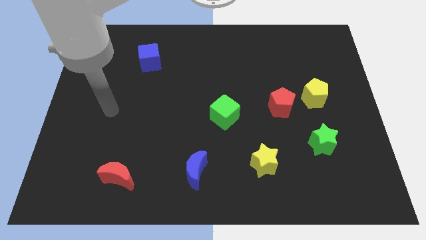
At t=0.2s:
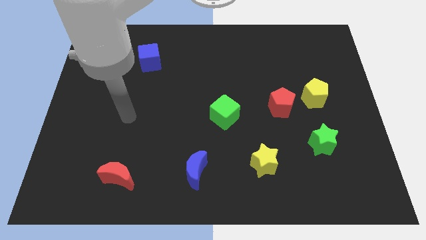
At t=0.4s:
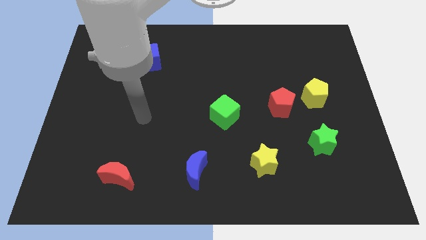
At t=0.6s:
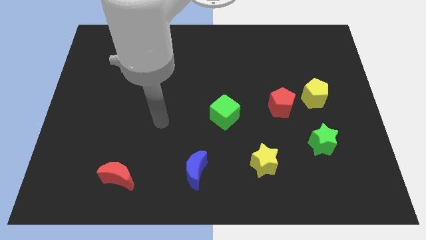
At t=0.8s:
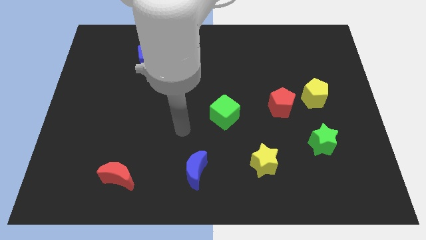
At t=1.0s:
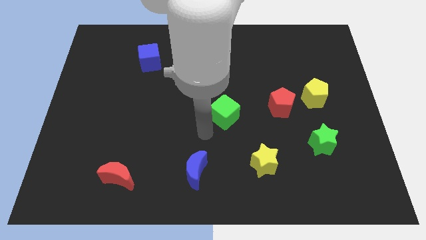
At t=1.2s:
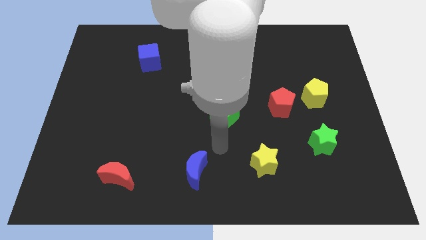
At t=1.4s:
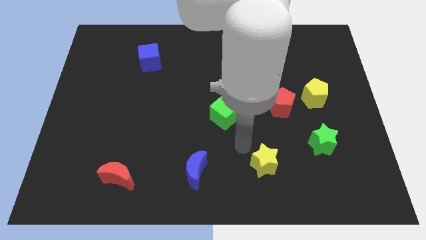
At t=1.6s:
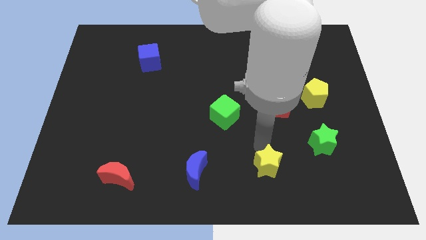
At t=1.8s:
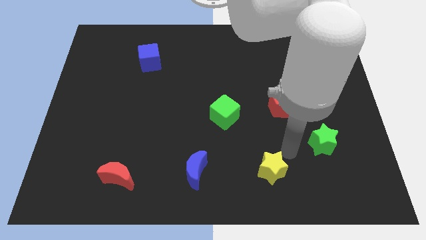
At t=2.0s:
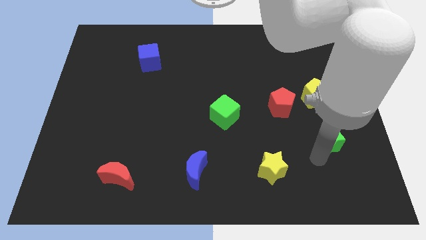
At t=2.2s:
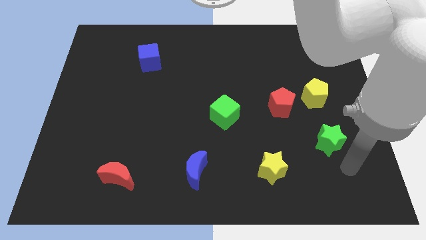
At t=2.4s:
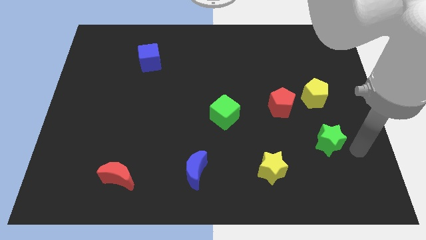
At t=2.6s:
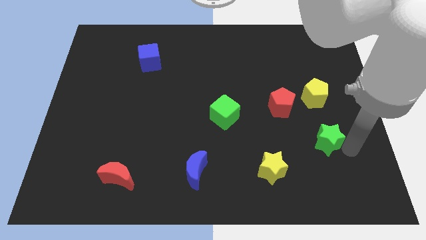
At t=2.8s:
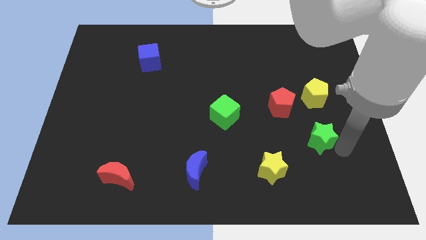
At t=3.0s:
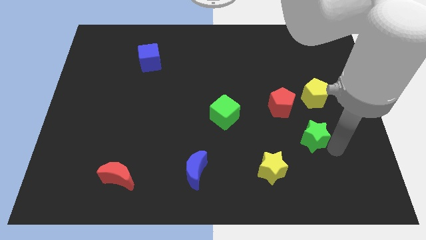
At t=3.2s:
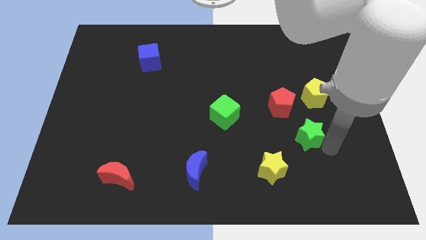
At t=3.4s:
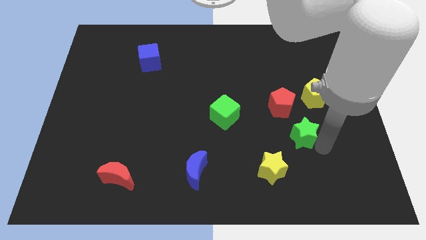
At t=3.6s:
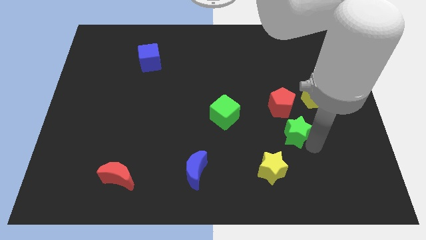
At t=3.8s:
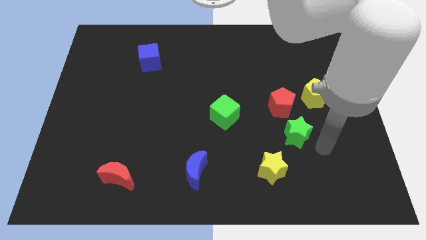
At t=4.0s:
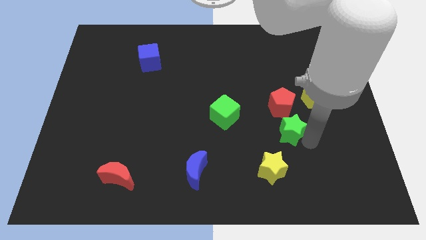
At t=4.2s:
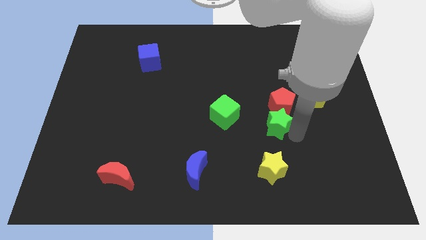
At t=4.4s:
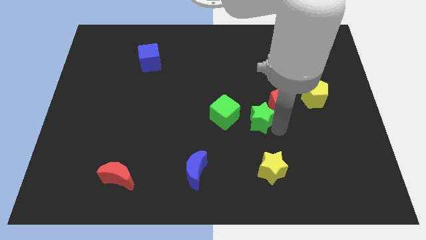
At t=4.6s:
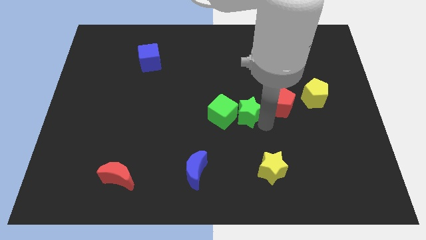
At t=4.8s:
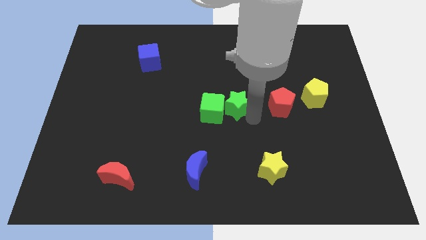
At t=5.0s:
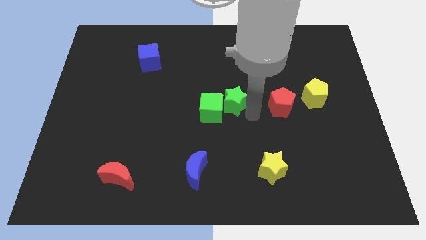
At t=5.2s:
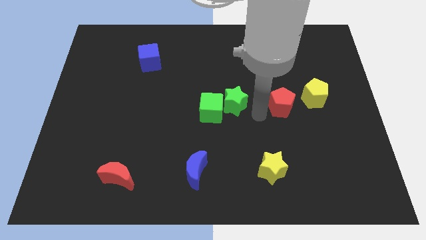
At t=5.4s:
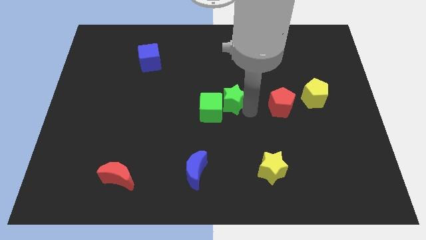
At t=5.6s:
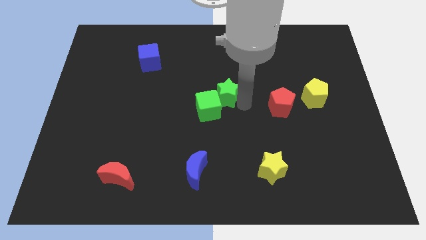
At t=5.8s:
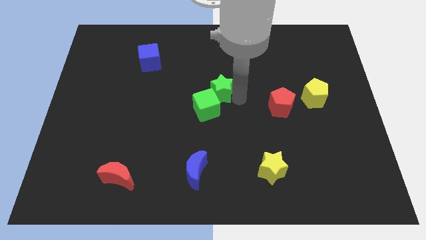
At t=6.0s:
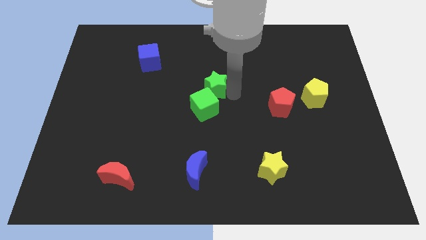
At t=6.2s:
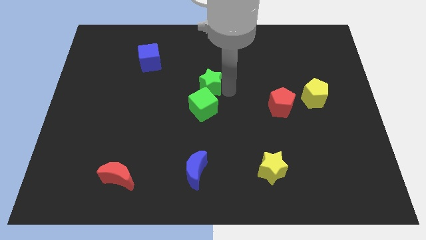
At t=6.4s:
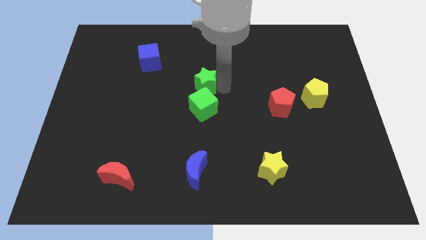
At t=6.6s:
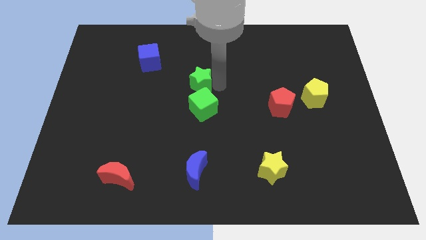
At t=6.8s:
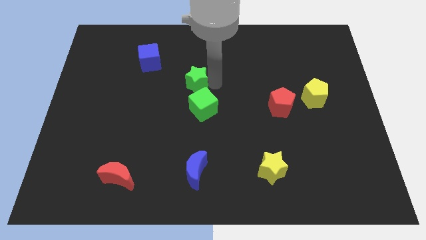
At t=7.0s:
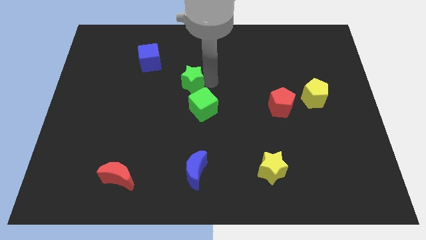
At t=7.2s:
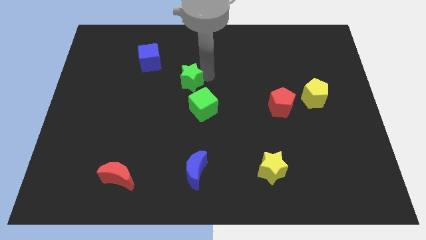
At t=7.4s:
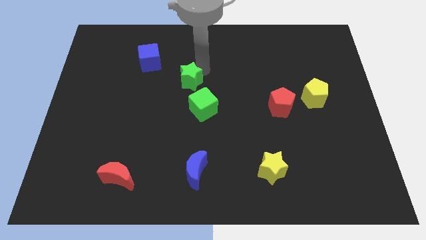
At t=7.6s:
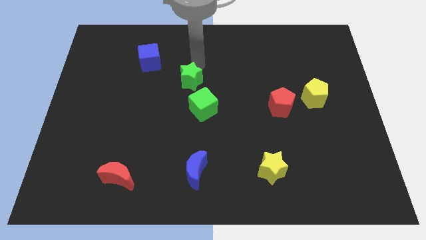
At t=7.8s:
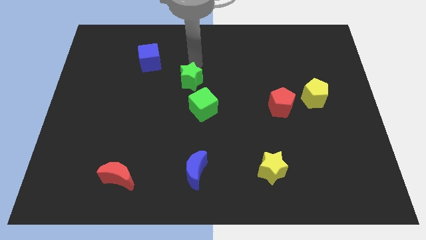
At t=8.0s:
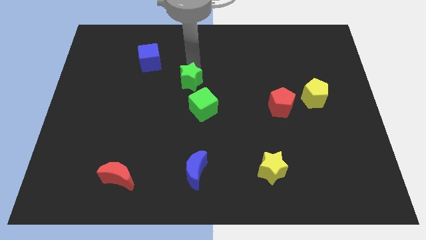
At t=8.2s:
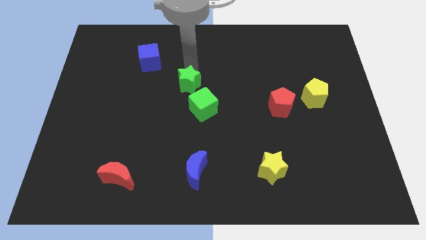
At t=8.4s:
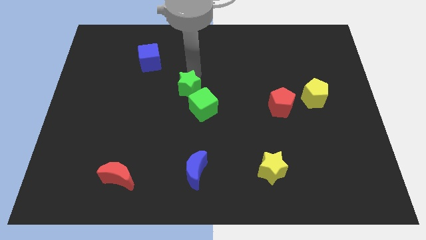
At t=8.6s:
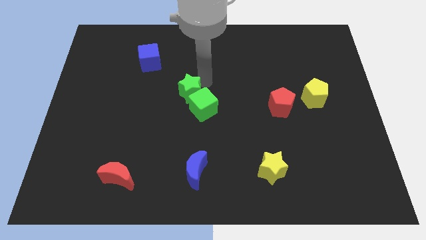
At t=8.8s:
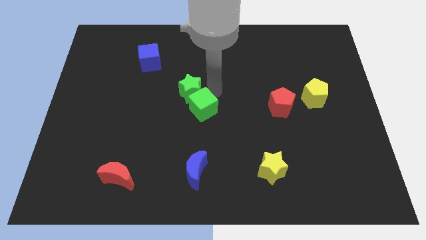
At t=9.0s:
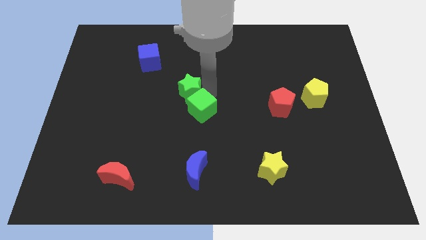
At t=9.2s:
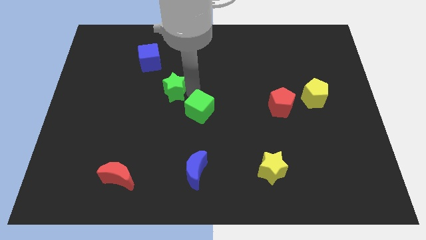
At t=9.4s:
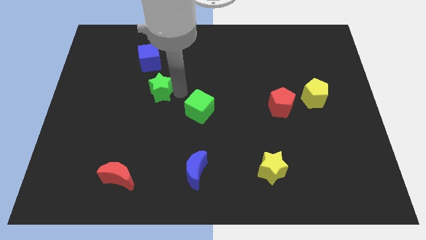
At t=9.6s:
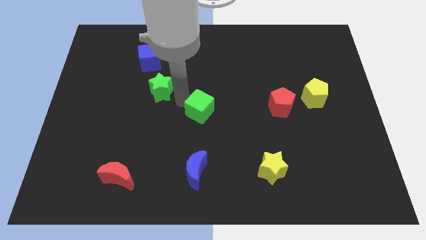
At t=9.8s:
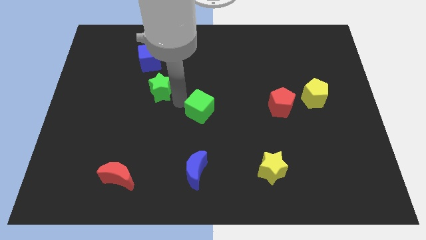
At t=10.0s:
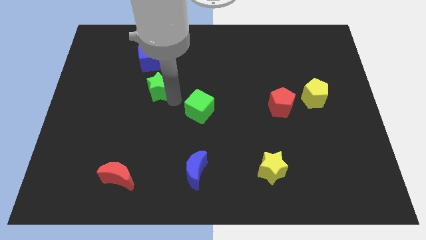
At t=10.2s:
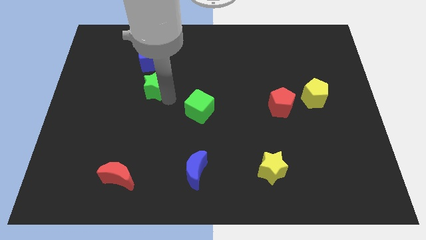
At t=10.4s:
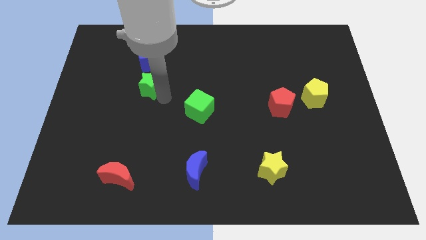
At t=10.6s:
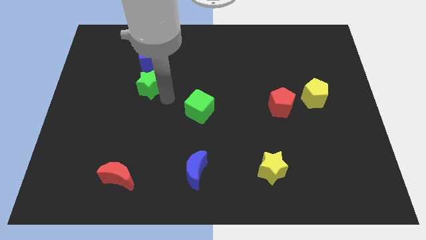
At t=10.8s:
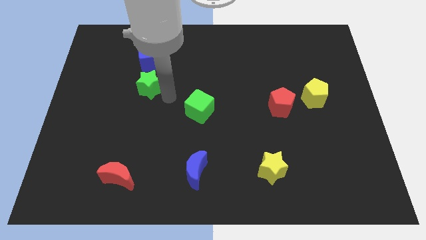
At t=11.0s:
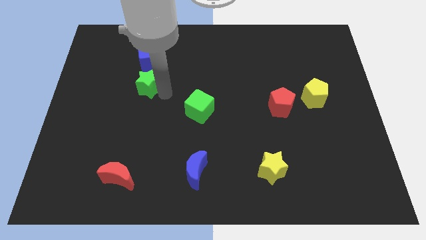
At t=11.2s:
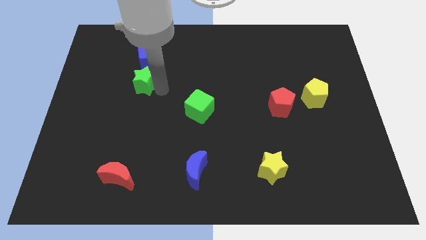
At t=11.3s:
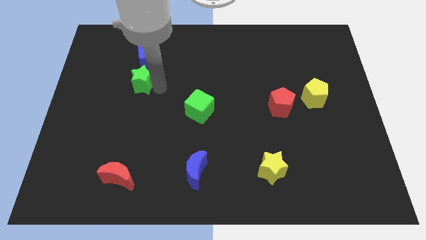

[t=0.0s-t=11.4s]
slide the green star to the bottom left of the blue cube

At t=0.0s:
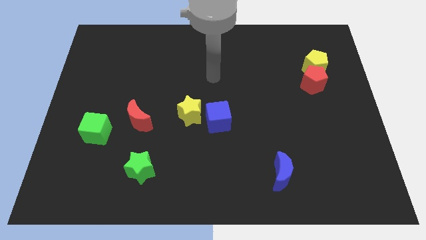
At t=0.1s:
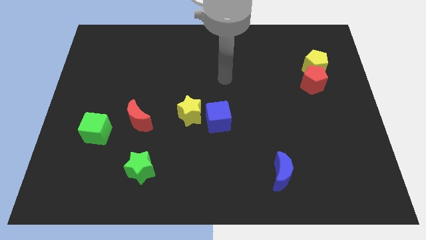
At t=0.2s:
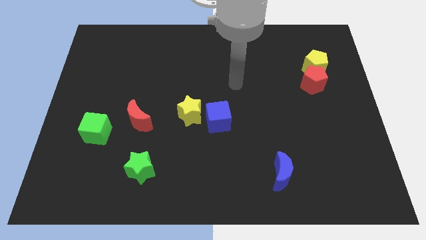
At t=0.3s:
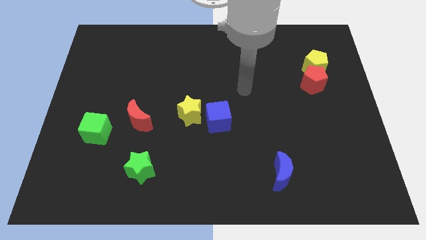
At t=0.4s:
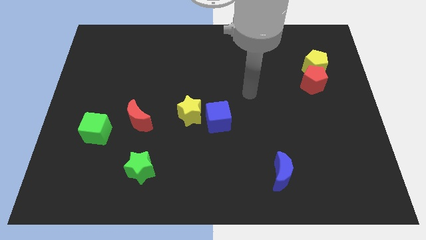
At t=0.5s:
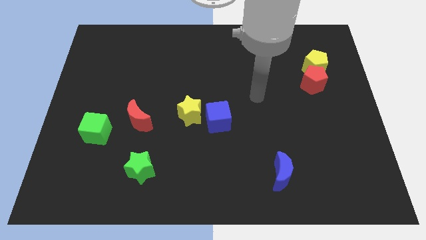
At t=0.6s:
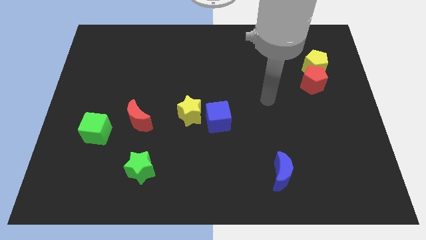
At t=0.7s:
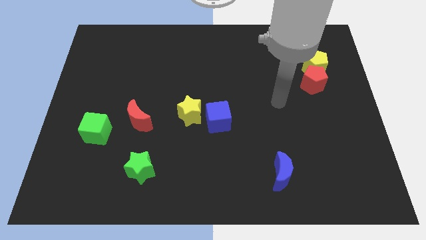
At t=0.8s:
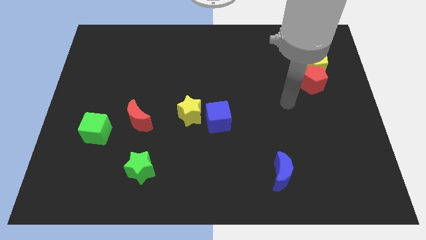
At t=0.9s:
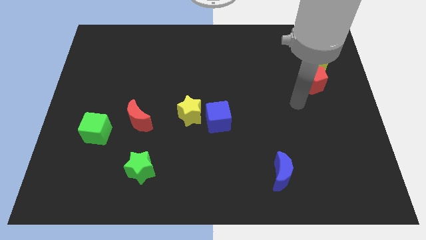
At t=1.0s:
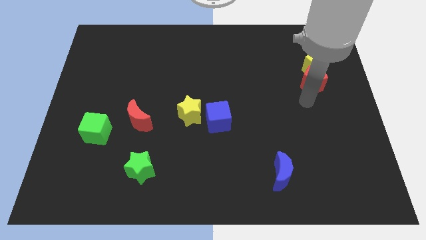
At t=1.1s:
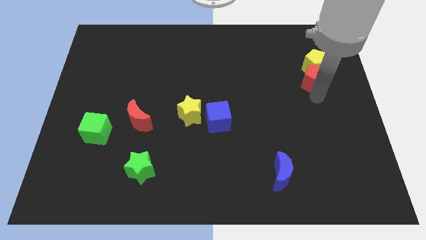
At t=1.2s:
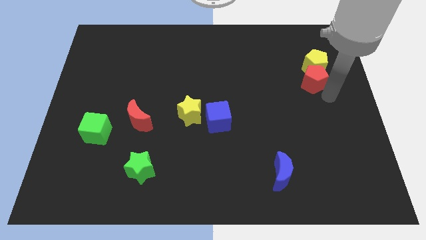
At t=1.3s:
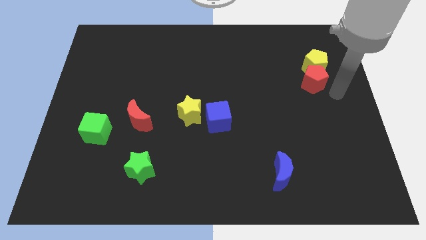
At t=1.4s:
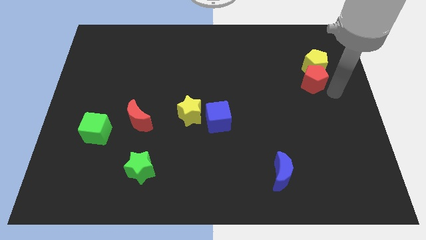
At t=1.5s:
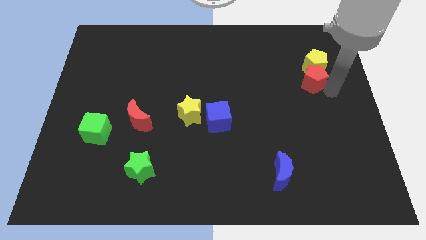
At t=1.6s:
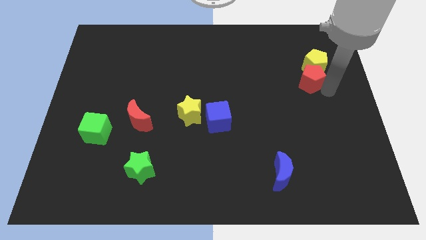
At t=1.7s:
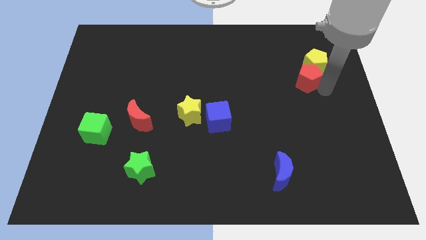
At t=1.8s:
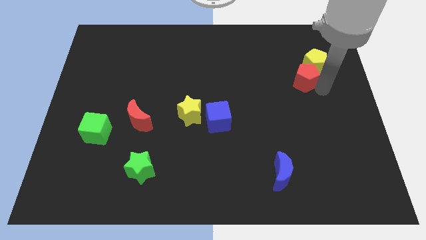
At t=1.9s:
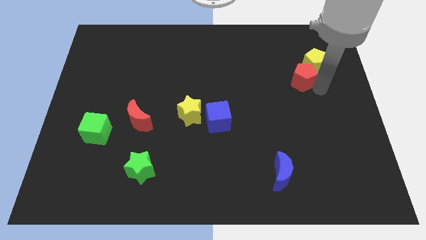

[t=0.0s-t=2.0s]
move the red pentagon to the left of the yellow pentagon
